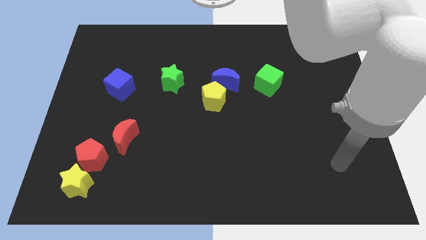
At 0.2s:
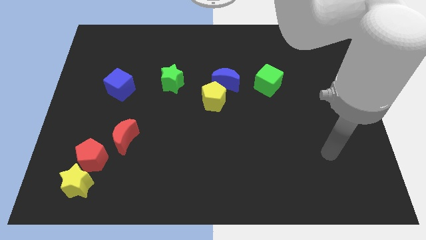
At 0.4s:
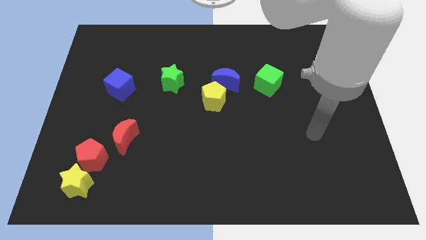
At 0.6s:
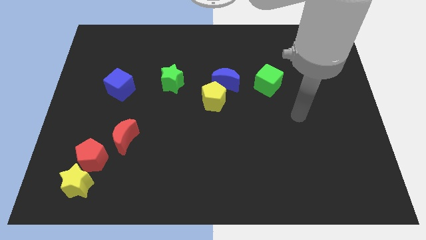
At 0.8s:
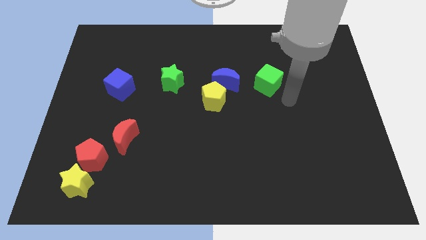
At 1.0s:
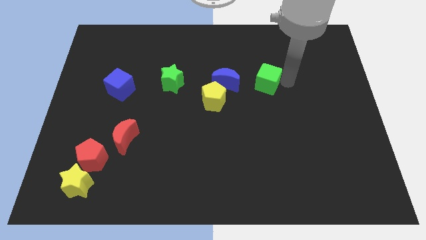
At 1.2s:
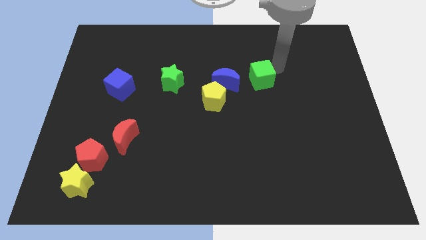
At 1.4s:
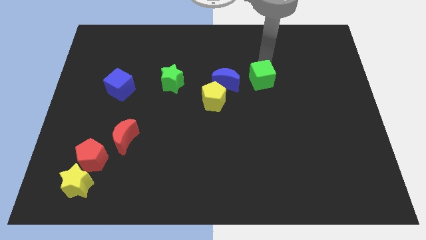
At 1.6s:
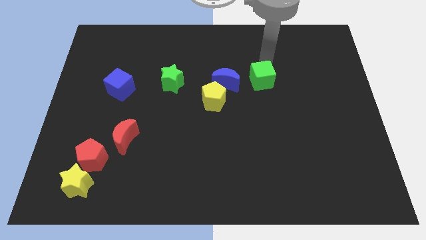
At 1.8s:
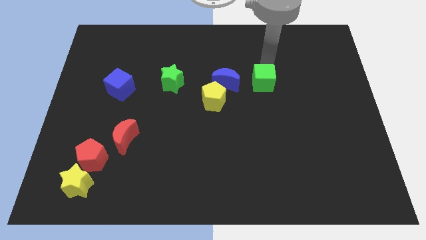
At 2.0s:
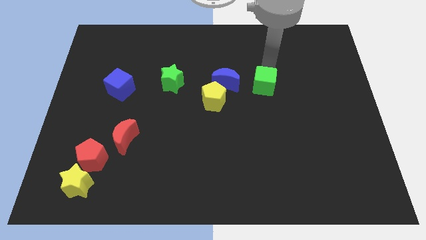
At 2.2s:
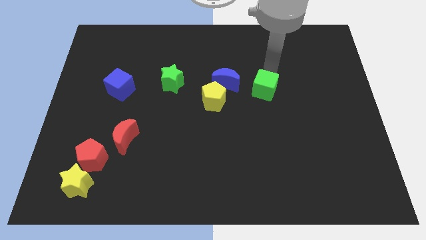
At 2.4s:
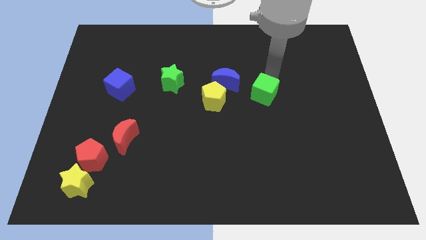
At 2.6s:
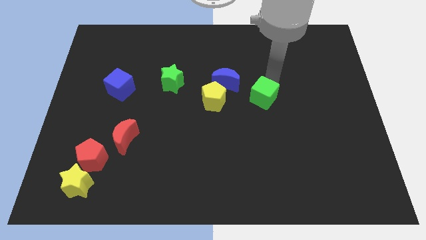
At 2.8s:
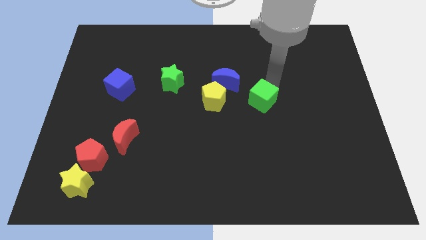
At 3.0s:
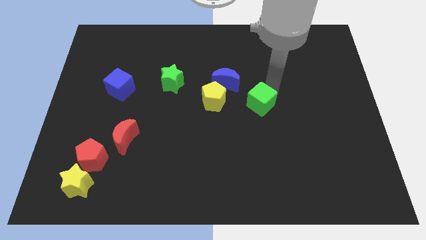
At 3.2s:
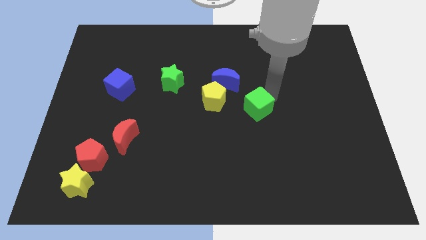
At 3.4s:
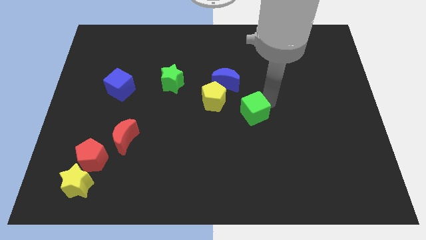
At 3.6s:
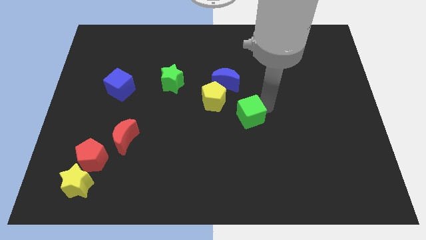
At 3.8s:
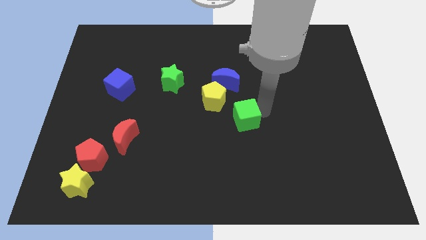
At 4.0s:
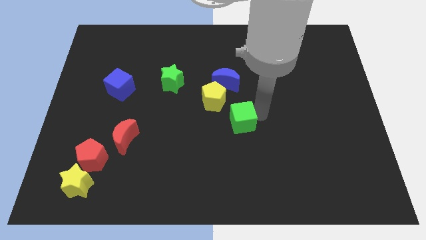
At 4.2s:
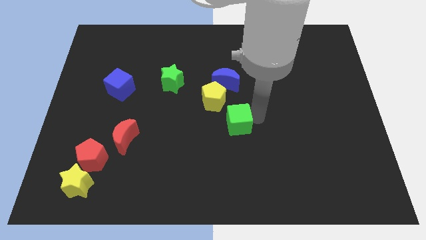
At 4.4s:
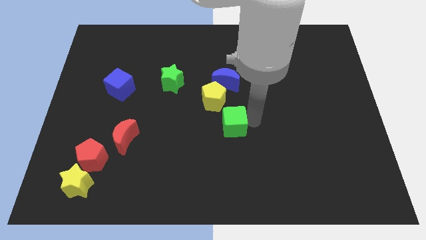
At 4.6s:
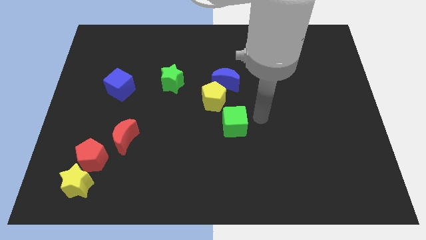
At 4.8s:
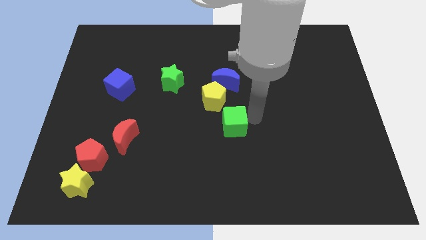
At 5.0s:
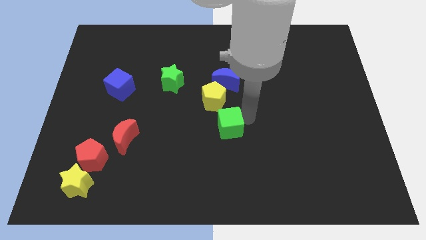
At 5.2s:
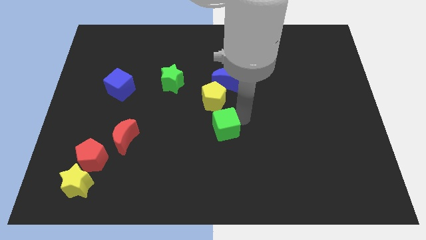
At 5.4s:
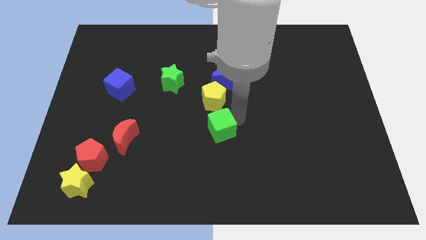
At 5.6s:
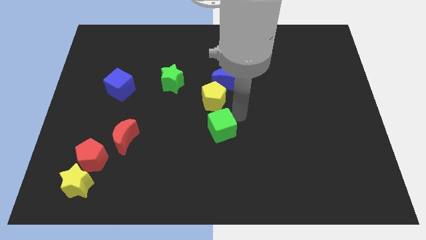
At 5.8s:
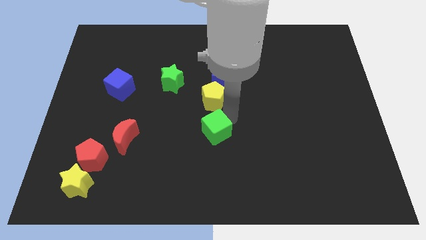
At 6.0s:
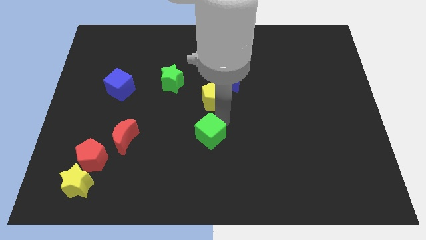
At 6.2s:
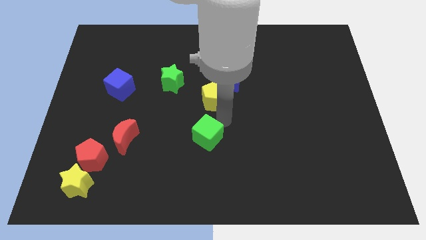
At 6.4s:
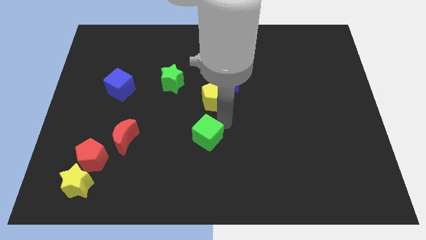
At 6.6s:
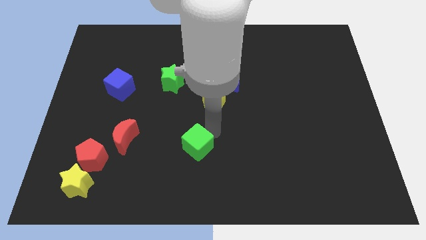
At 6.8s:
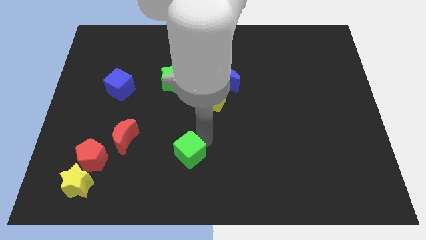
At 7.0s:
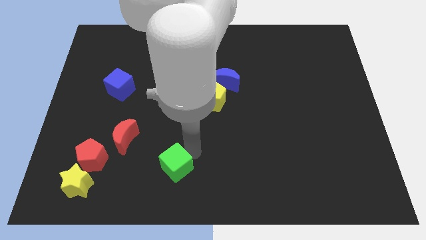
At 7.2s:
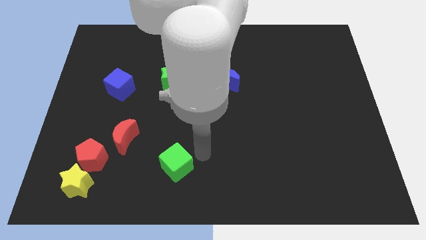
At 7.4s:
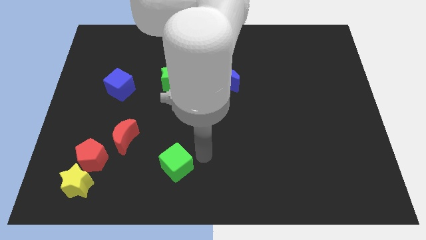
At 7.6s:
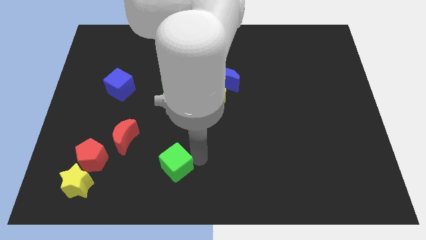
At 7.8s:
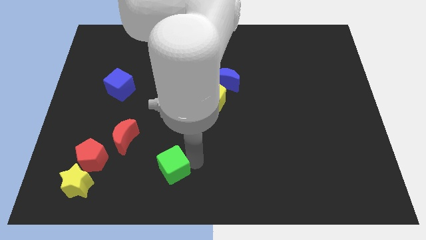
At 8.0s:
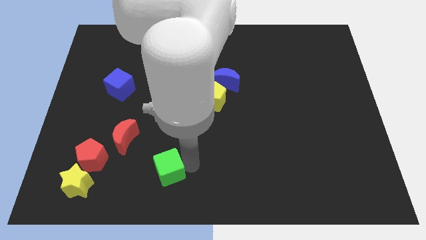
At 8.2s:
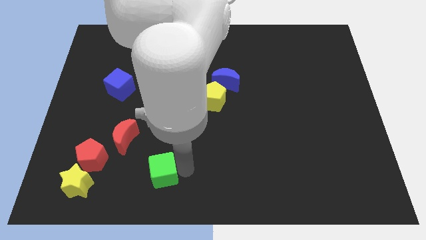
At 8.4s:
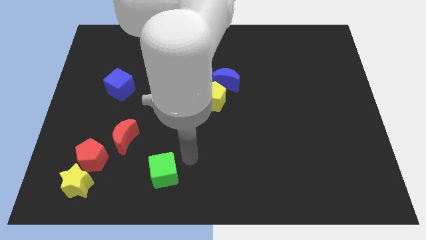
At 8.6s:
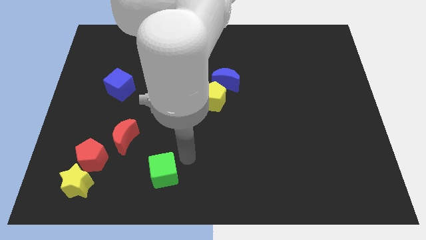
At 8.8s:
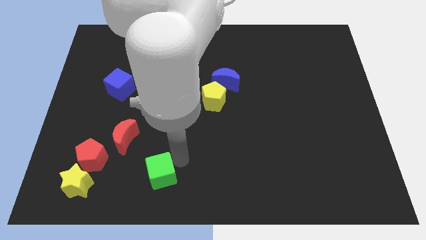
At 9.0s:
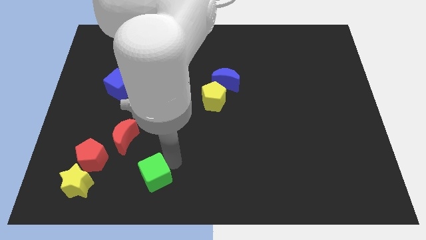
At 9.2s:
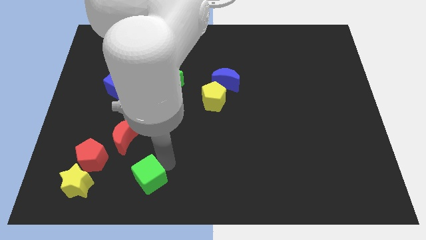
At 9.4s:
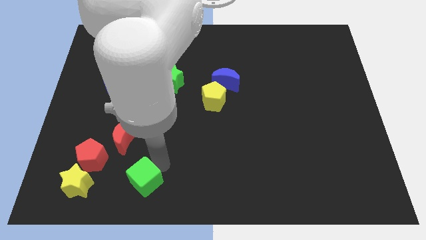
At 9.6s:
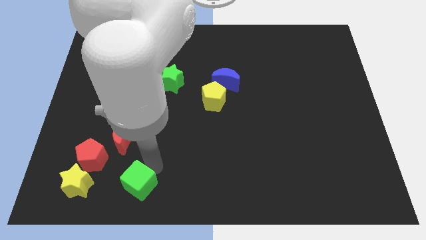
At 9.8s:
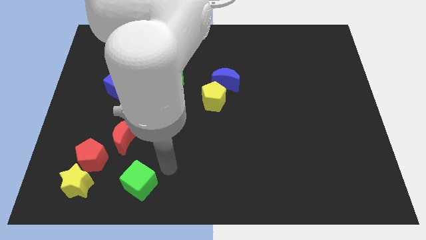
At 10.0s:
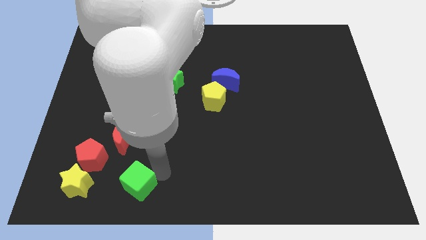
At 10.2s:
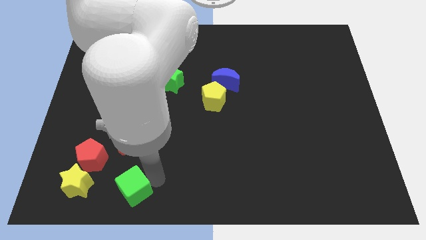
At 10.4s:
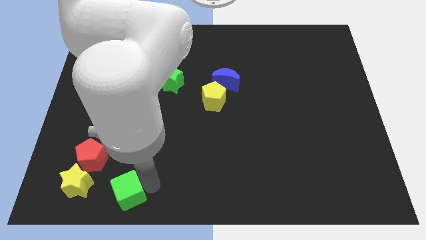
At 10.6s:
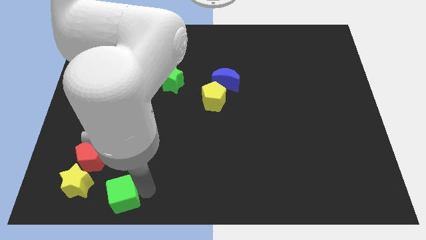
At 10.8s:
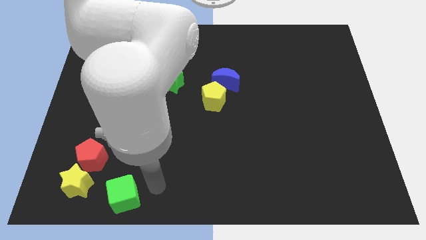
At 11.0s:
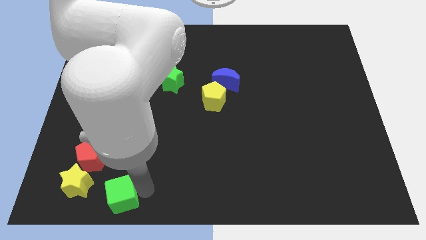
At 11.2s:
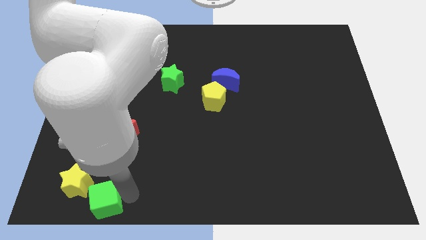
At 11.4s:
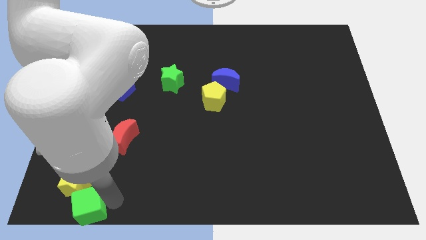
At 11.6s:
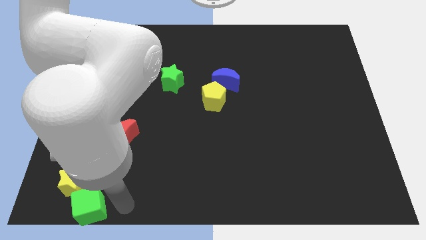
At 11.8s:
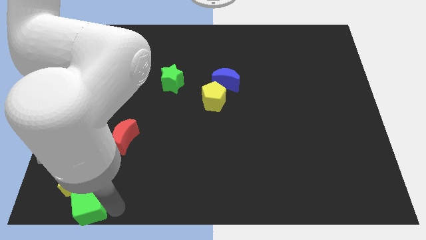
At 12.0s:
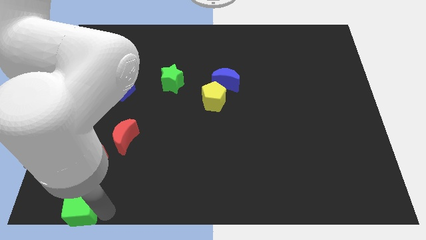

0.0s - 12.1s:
move the green cube to the lower left corner

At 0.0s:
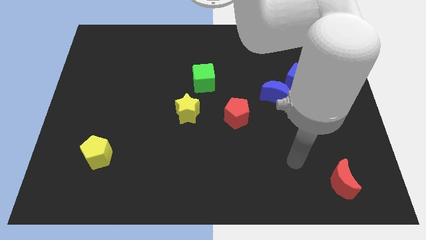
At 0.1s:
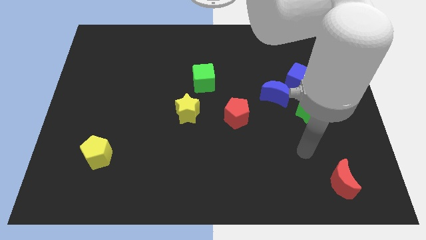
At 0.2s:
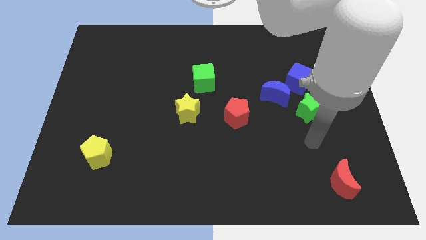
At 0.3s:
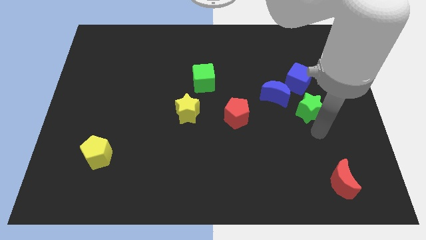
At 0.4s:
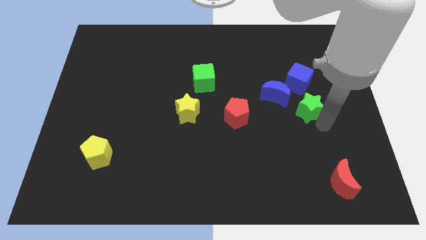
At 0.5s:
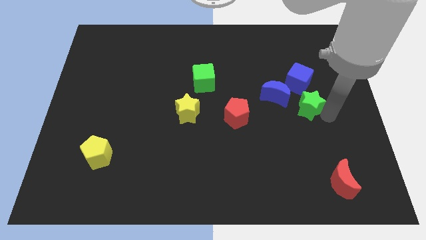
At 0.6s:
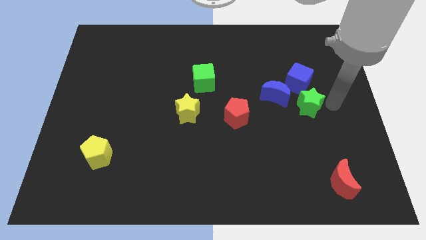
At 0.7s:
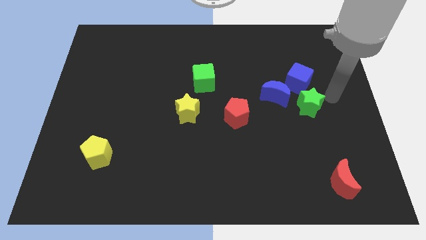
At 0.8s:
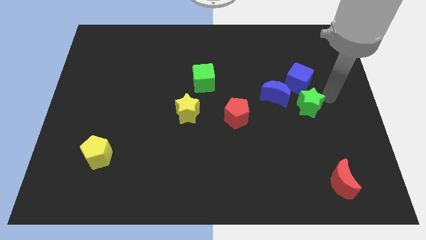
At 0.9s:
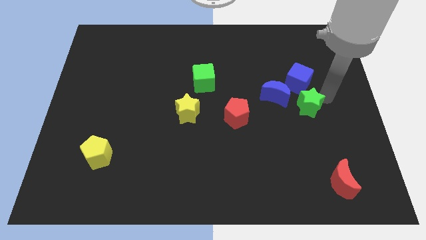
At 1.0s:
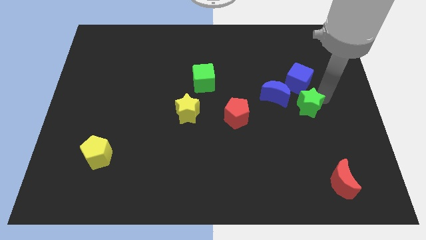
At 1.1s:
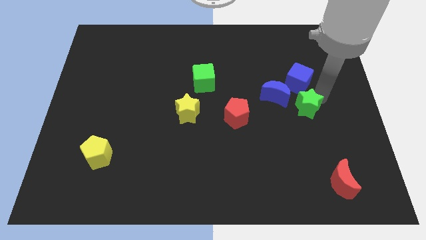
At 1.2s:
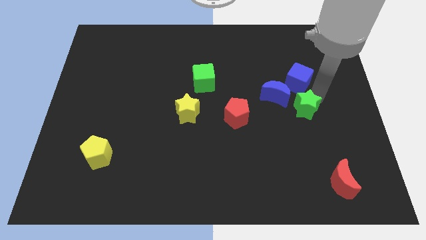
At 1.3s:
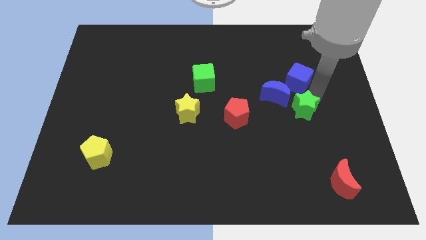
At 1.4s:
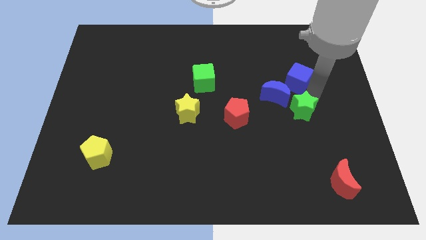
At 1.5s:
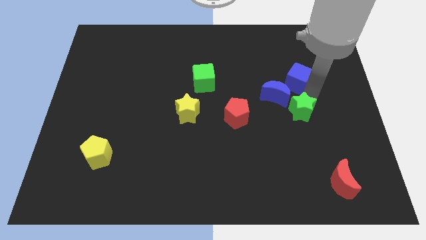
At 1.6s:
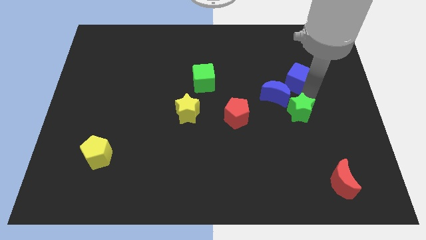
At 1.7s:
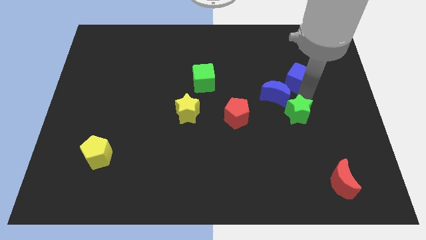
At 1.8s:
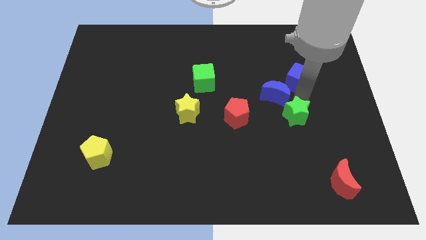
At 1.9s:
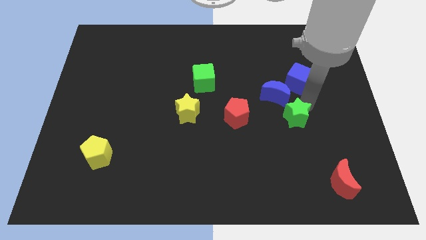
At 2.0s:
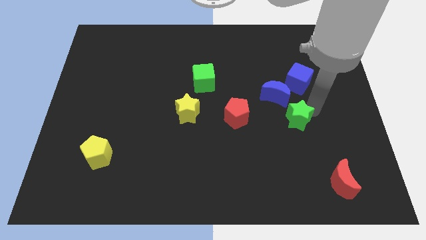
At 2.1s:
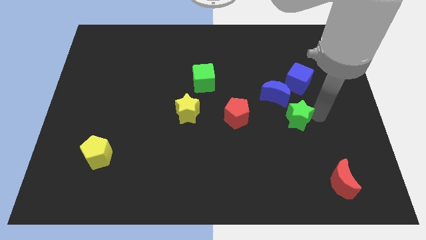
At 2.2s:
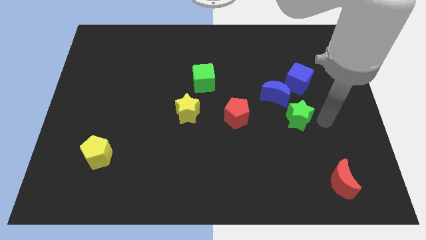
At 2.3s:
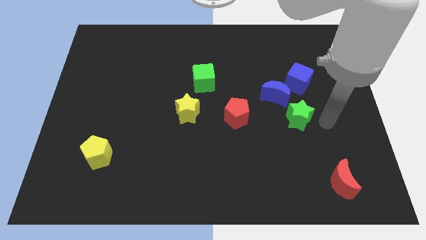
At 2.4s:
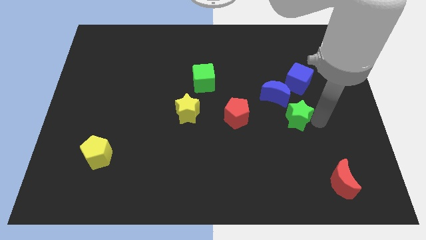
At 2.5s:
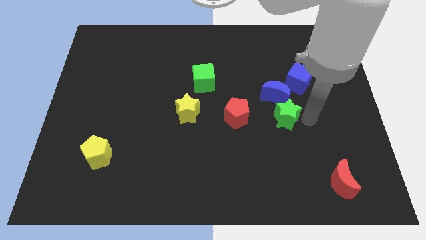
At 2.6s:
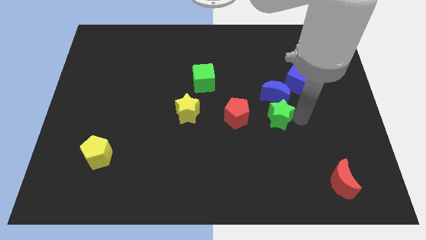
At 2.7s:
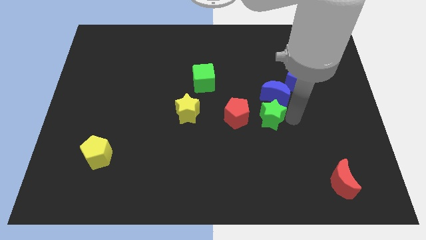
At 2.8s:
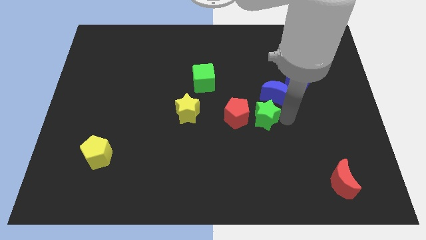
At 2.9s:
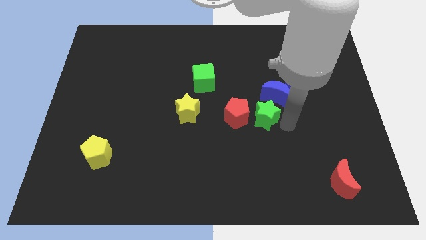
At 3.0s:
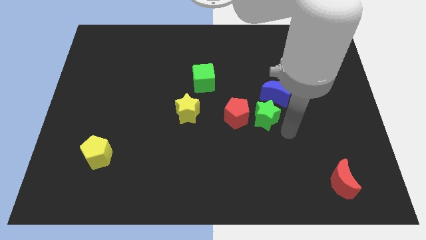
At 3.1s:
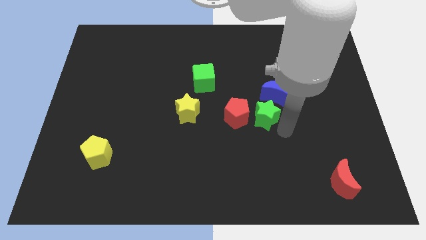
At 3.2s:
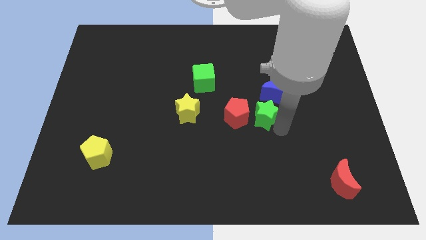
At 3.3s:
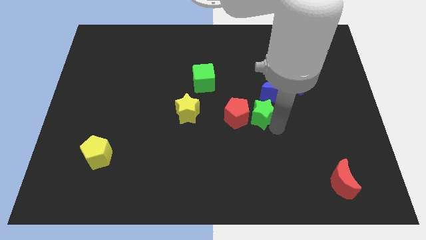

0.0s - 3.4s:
push the green star to the middle of the board
